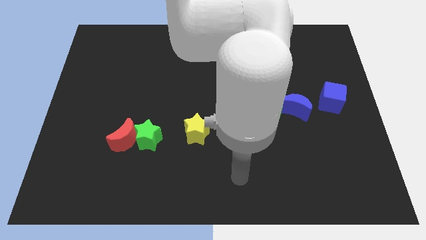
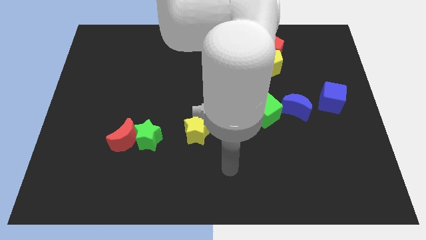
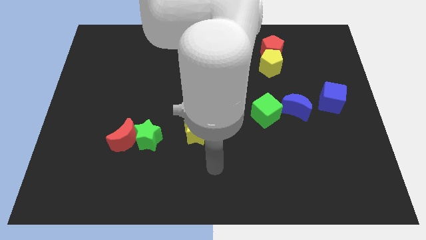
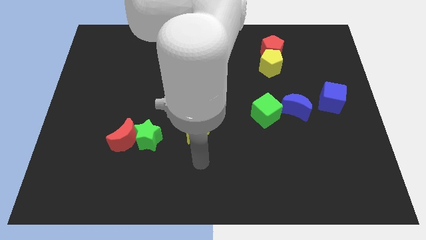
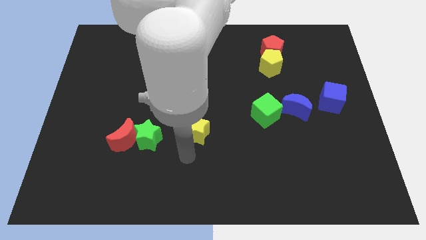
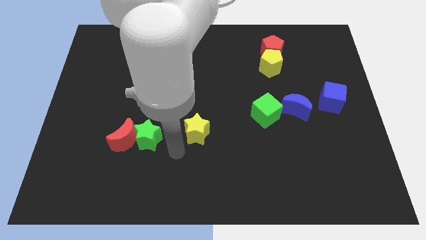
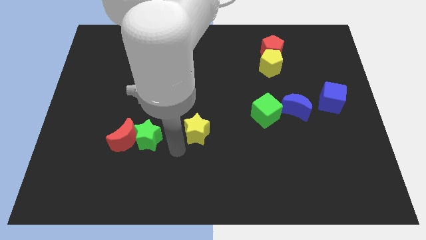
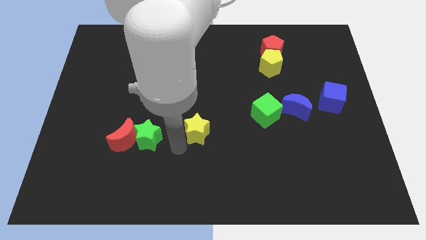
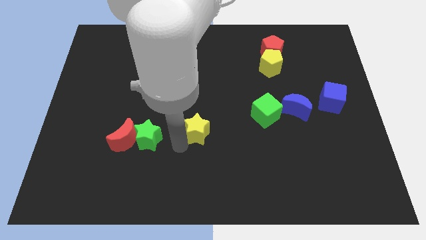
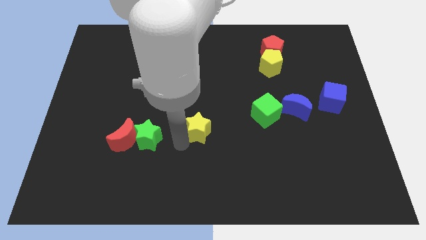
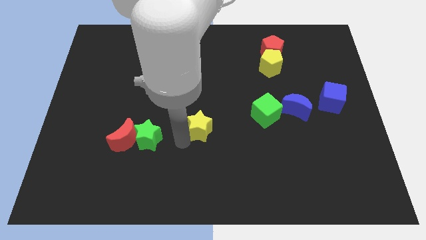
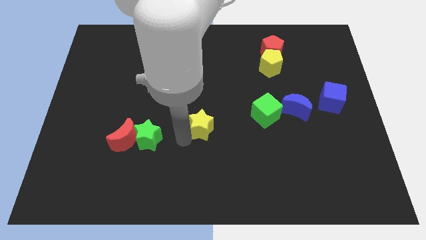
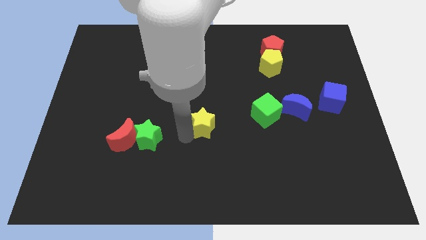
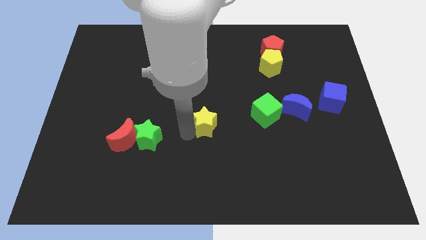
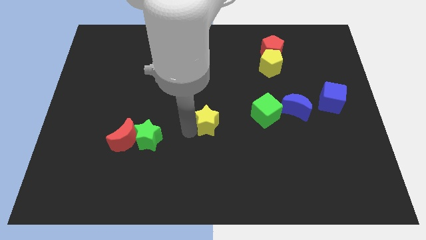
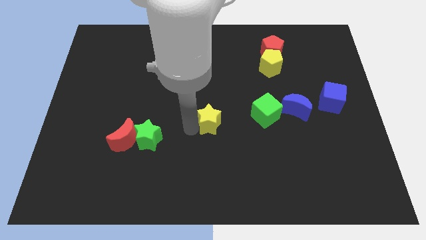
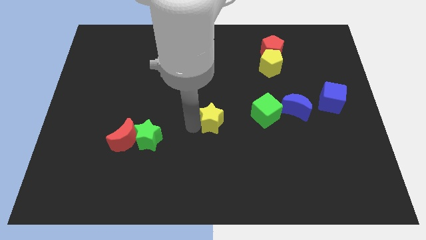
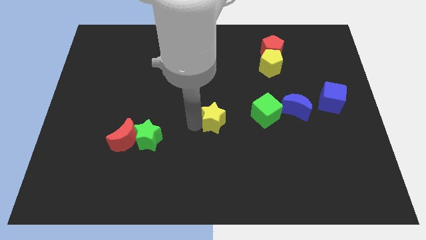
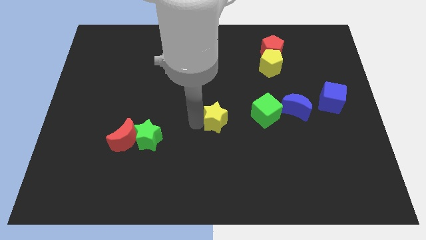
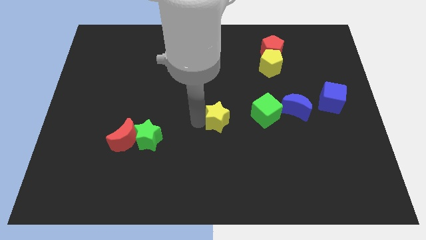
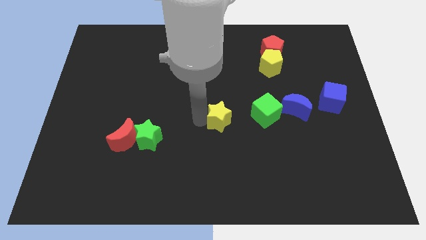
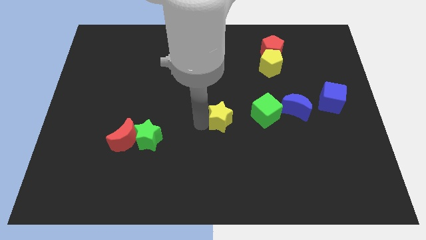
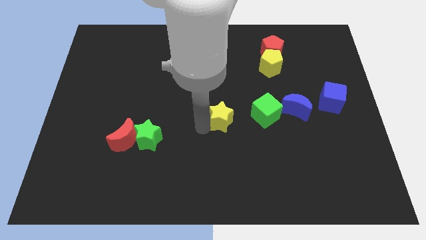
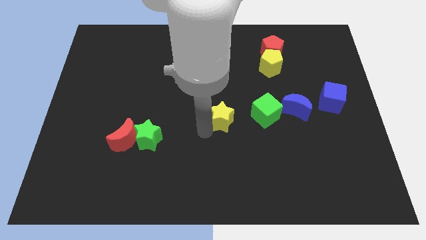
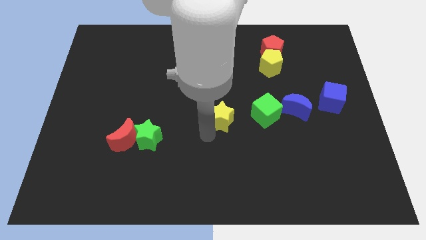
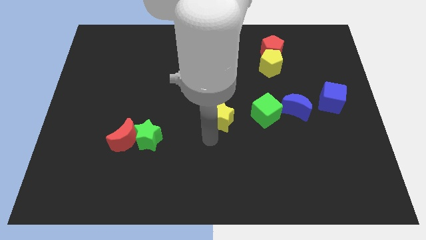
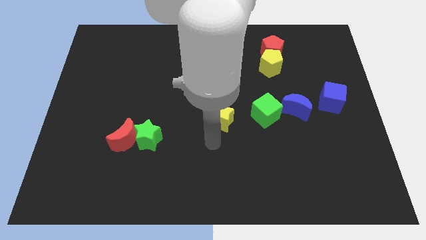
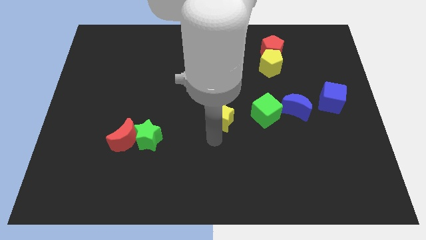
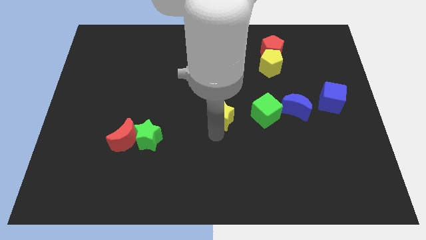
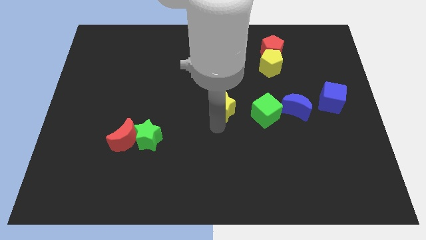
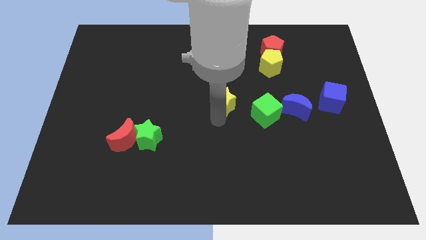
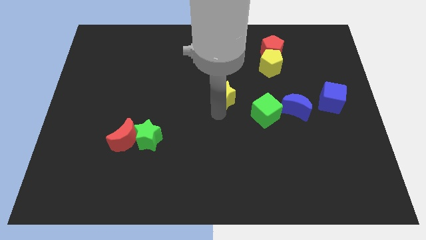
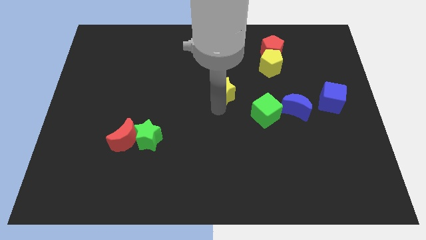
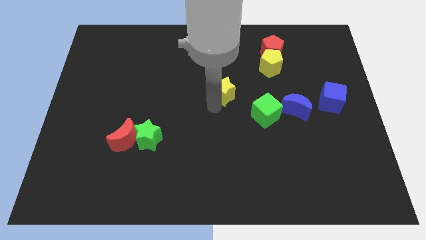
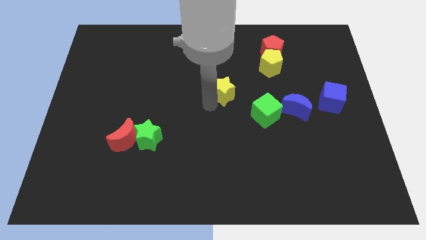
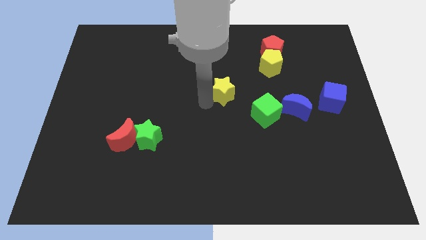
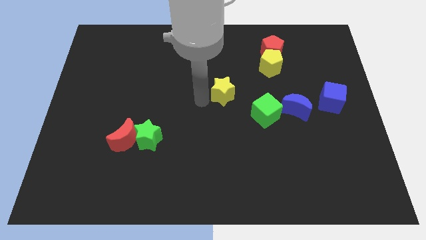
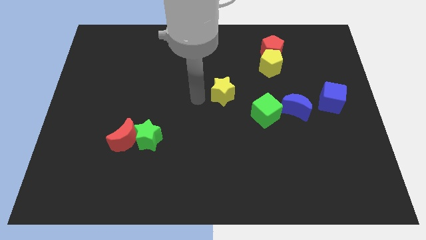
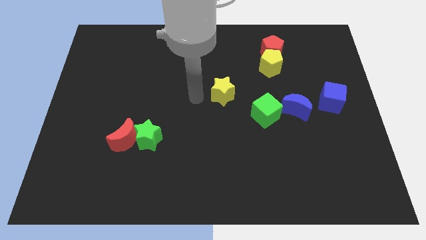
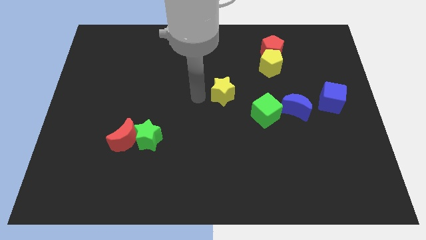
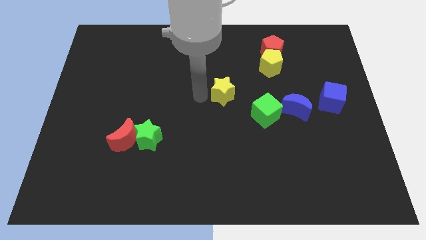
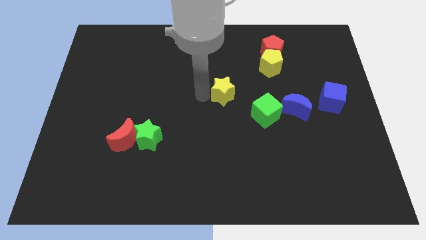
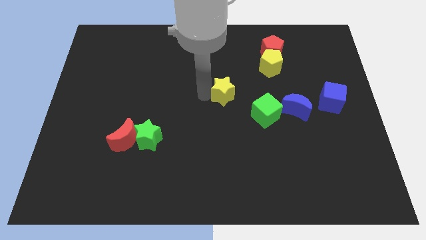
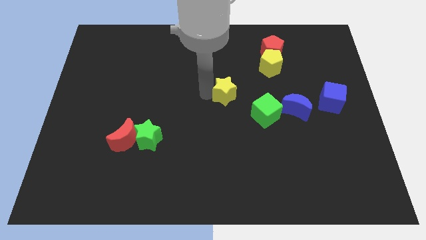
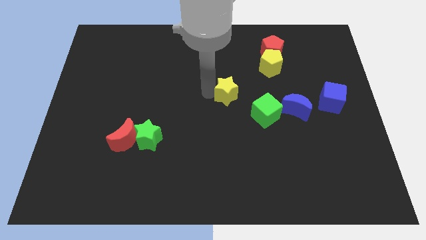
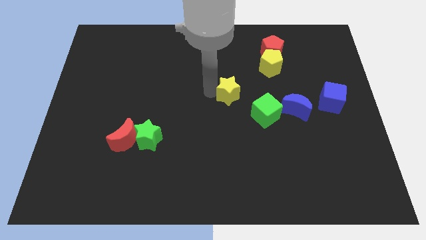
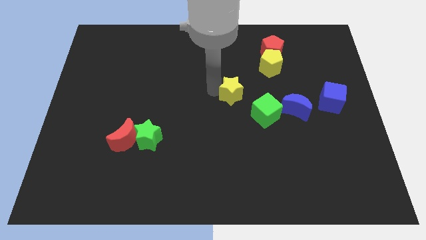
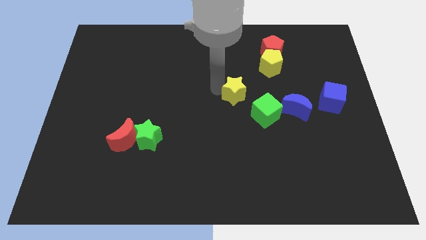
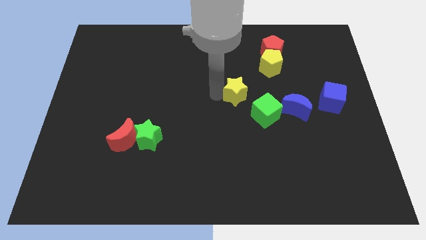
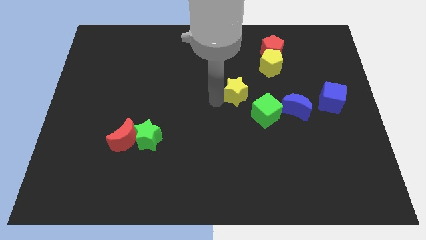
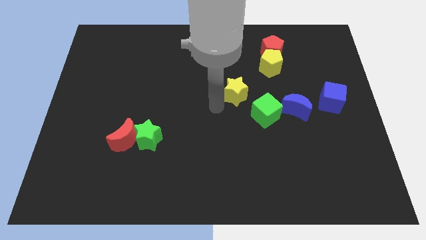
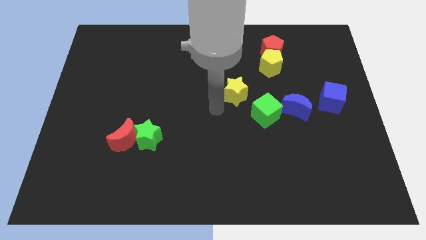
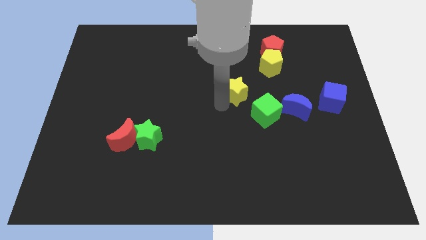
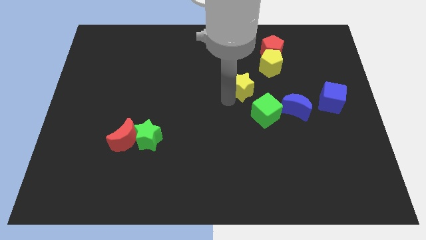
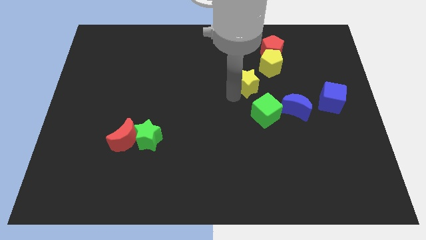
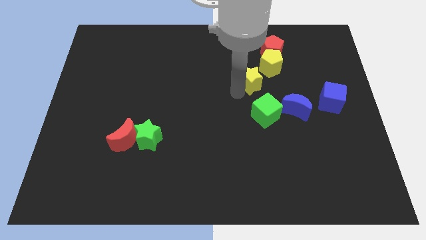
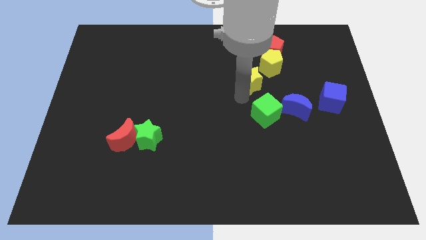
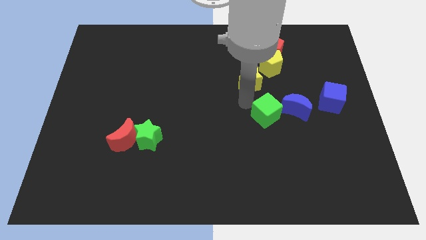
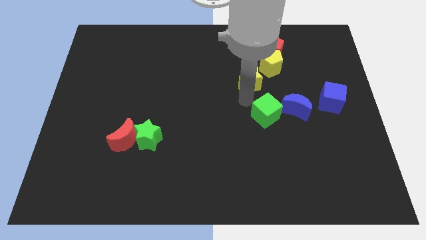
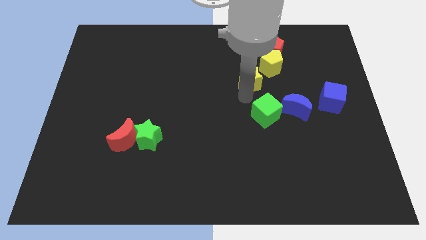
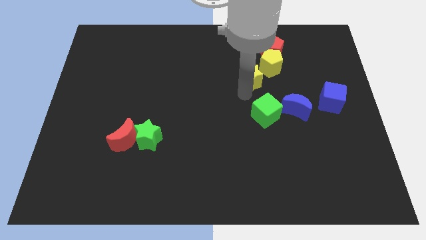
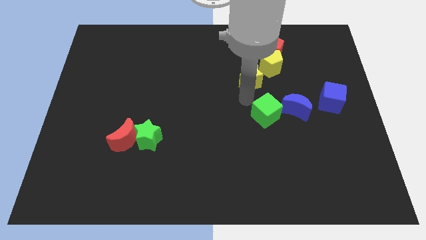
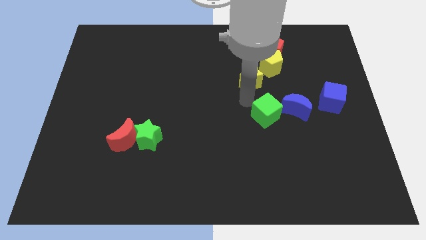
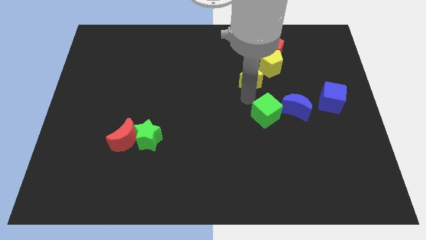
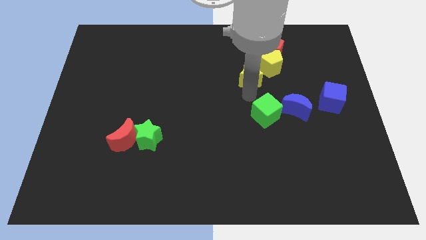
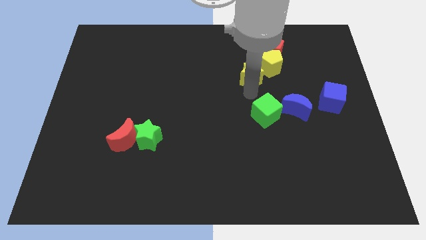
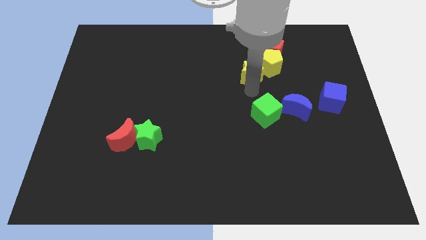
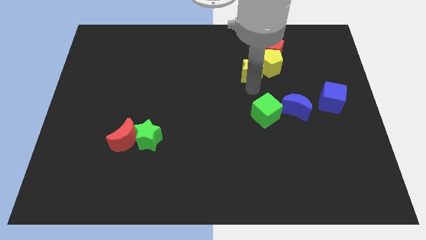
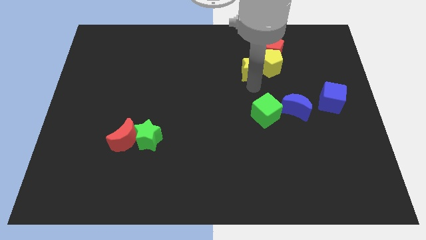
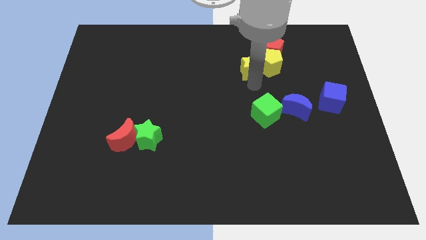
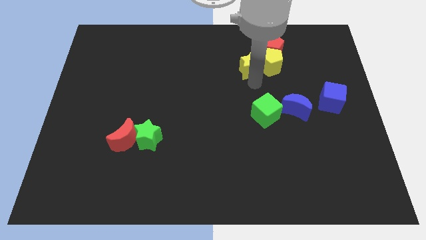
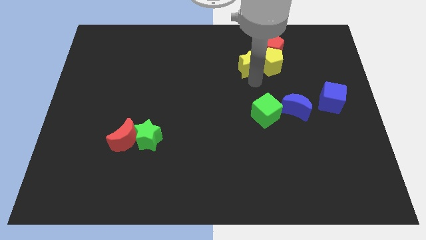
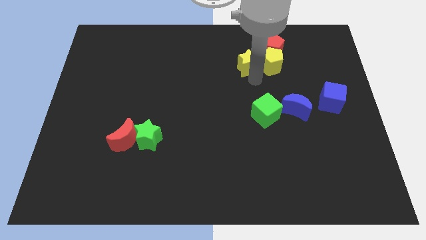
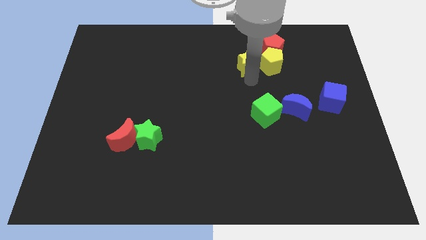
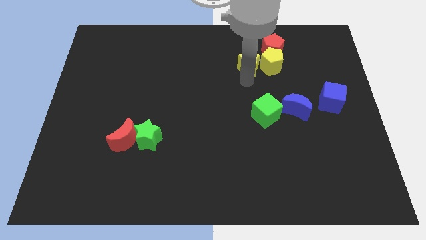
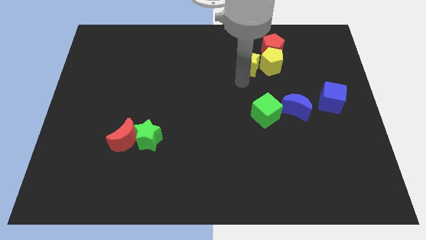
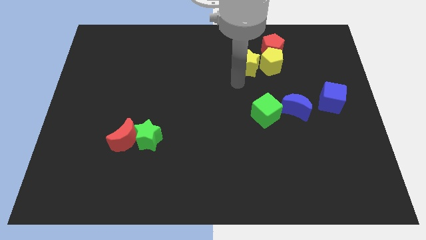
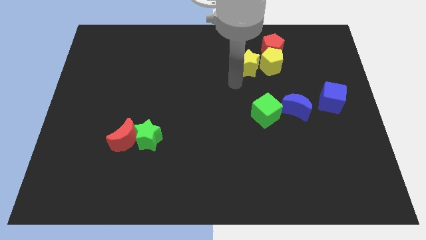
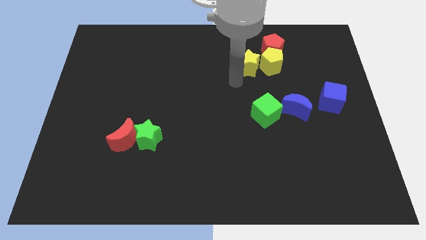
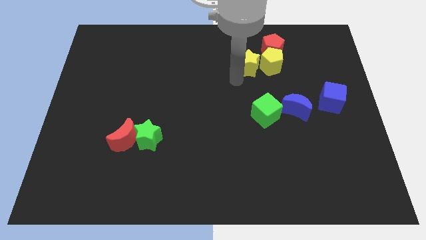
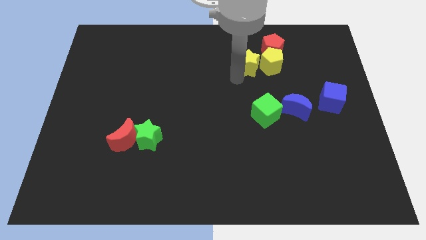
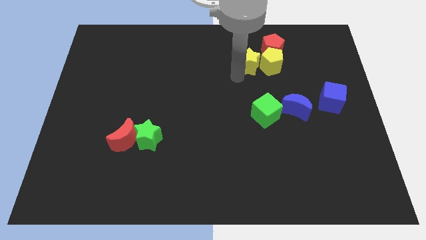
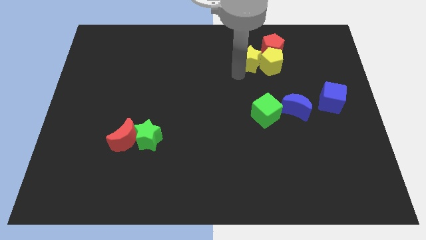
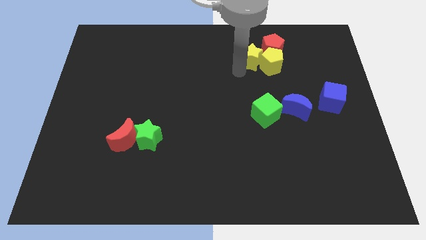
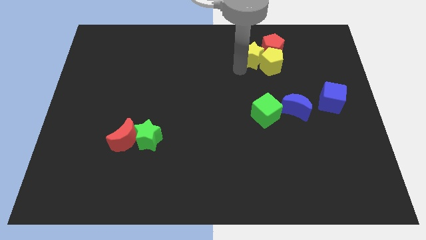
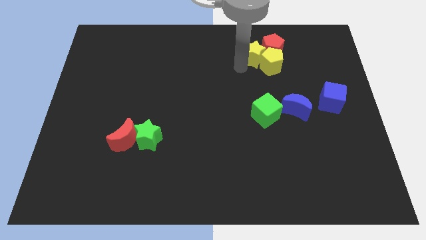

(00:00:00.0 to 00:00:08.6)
move the yellow star close to the red pentagon
